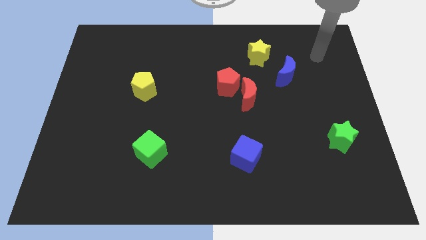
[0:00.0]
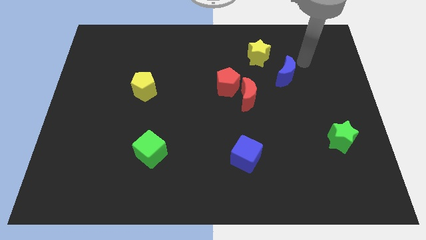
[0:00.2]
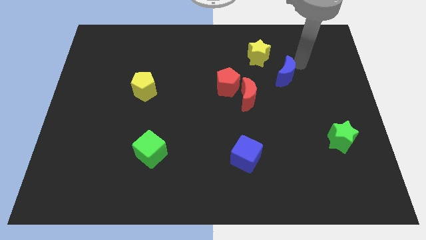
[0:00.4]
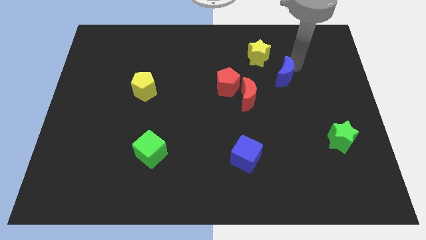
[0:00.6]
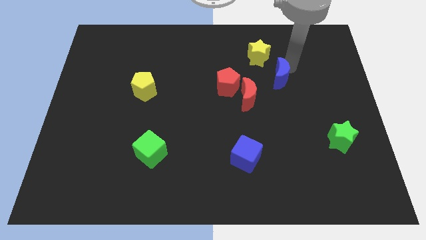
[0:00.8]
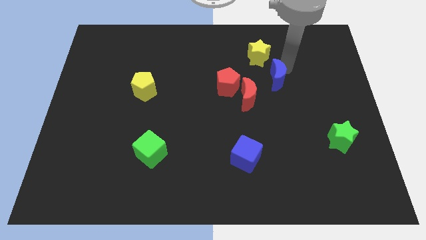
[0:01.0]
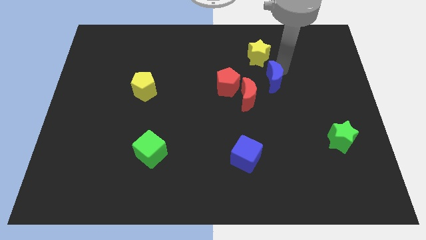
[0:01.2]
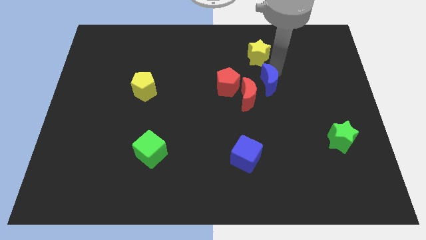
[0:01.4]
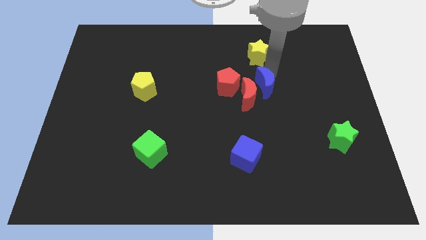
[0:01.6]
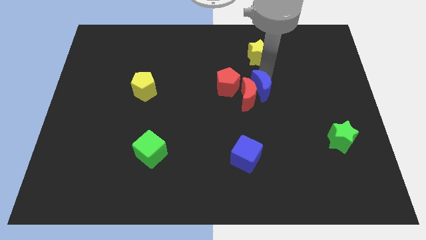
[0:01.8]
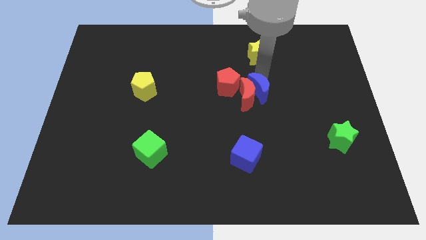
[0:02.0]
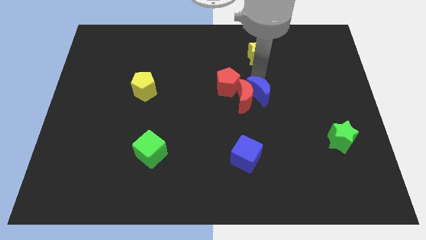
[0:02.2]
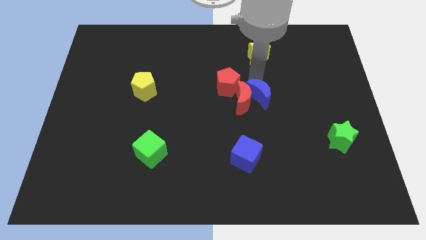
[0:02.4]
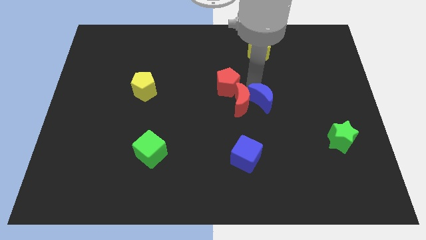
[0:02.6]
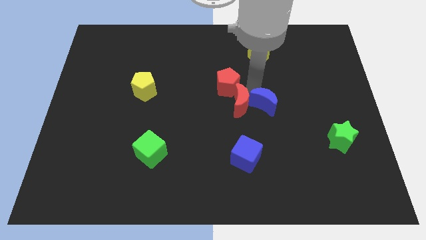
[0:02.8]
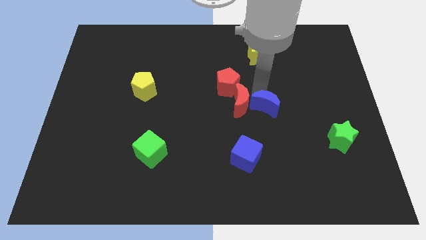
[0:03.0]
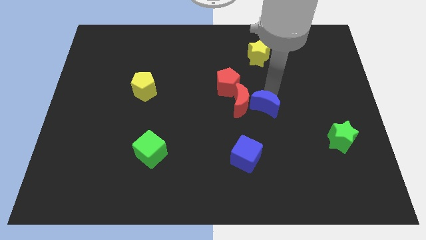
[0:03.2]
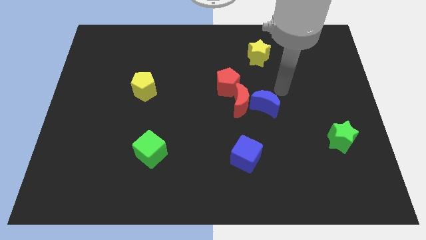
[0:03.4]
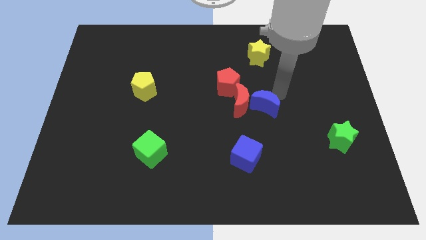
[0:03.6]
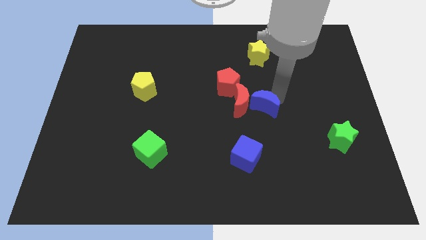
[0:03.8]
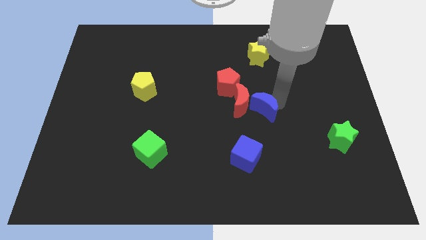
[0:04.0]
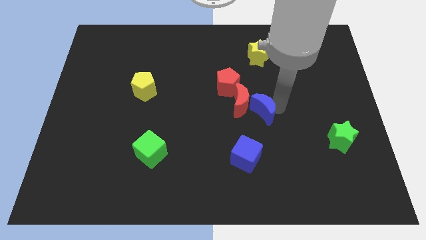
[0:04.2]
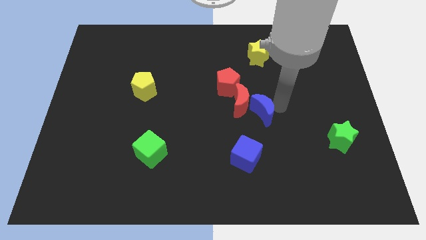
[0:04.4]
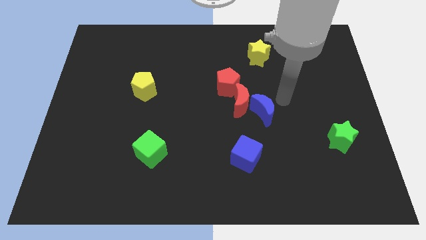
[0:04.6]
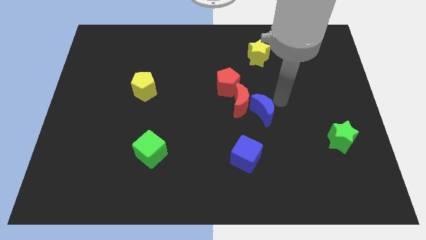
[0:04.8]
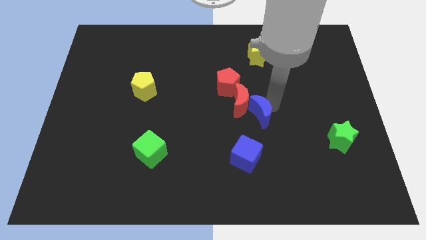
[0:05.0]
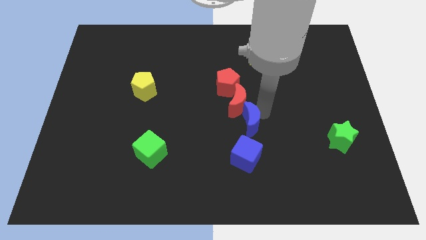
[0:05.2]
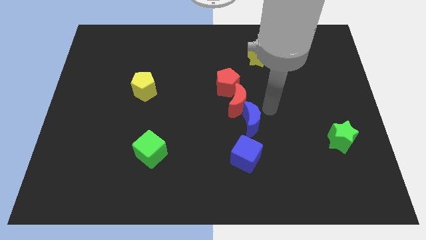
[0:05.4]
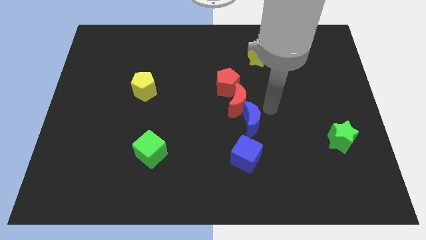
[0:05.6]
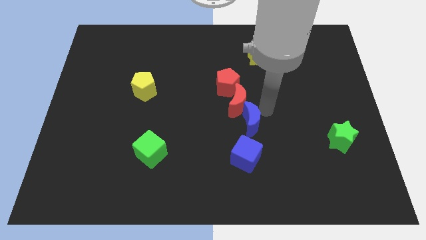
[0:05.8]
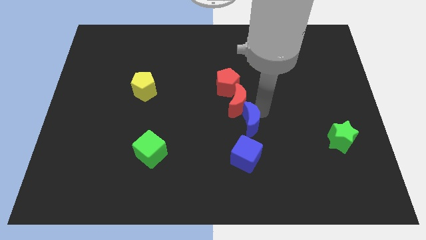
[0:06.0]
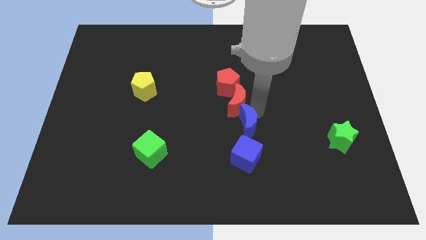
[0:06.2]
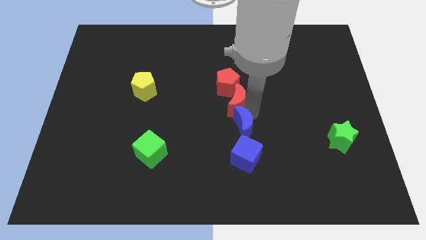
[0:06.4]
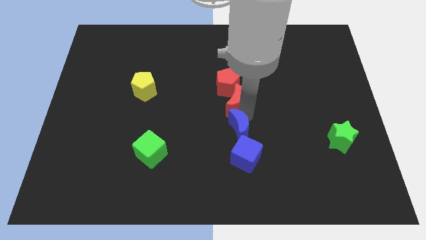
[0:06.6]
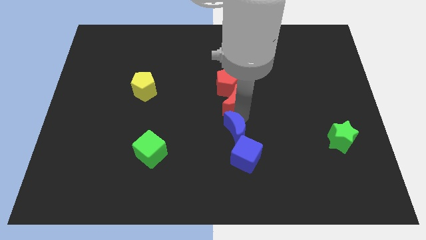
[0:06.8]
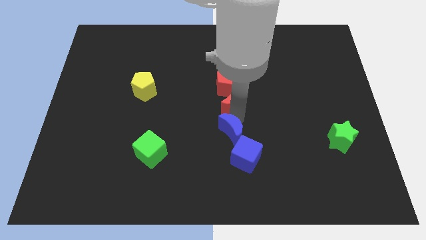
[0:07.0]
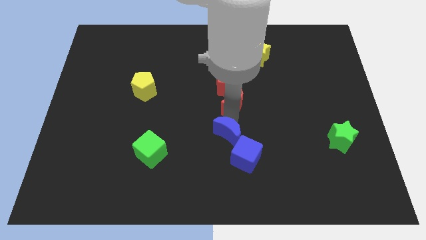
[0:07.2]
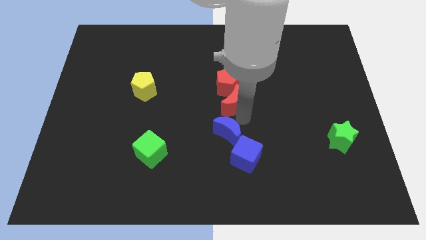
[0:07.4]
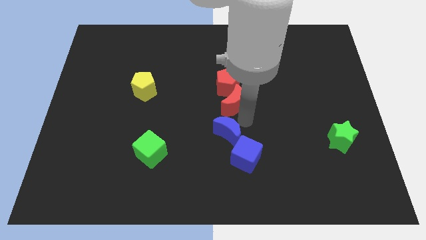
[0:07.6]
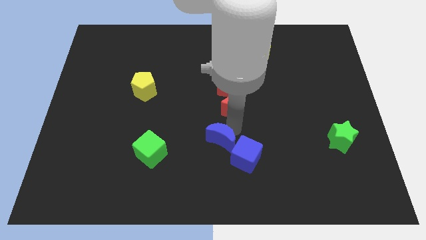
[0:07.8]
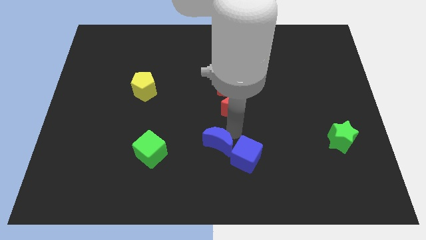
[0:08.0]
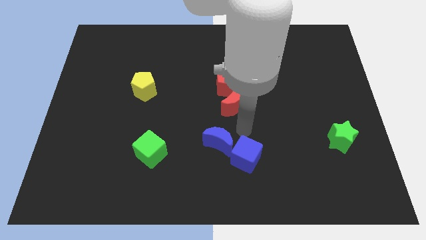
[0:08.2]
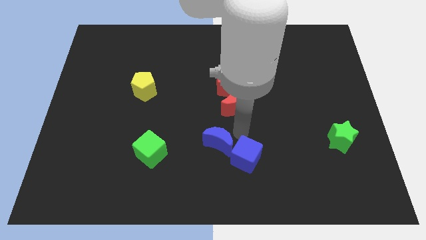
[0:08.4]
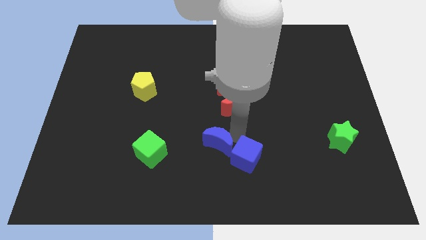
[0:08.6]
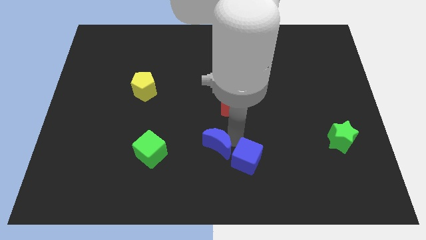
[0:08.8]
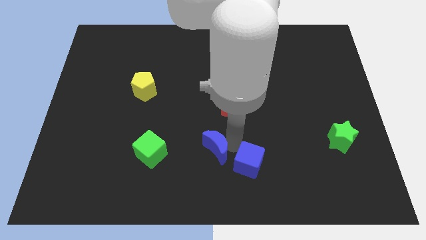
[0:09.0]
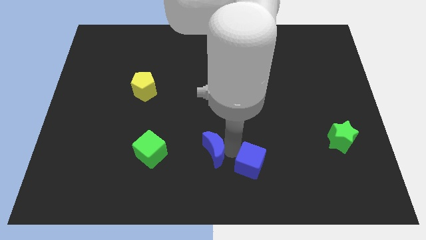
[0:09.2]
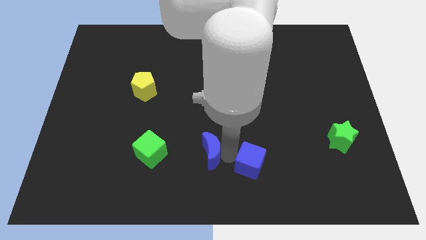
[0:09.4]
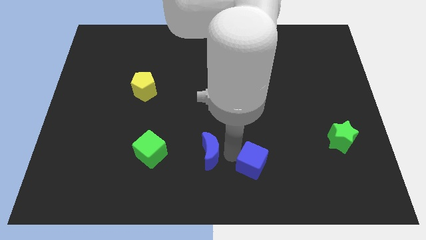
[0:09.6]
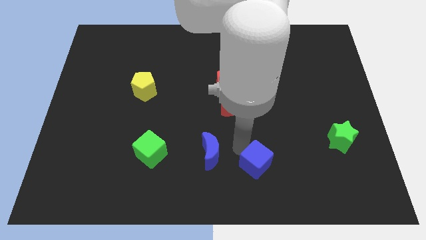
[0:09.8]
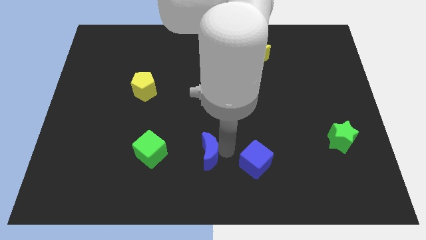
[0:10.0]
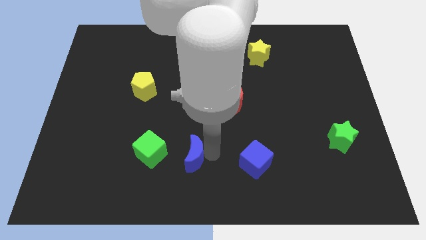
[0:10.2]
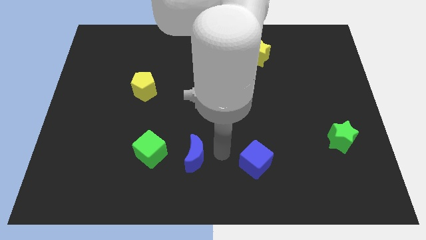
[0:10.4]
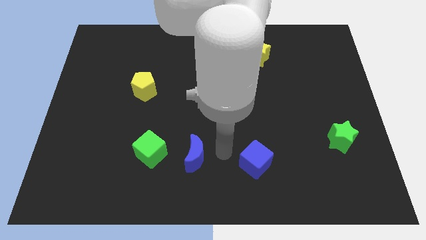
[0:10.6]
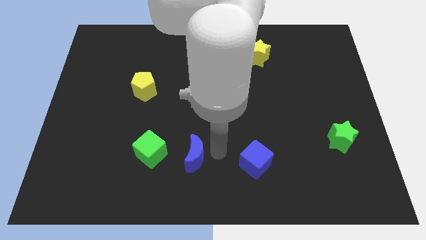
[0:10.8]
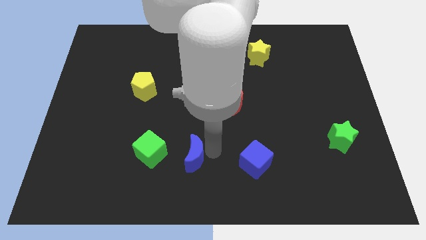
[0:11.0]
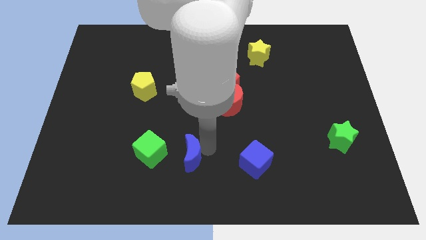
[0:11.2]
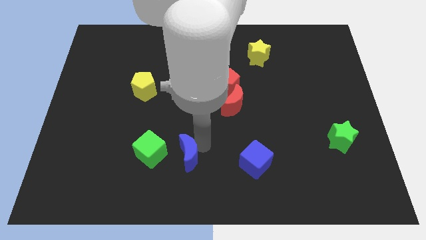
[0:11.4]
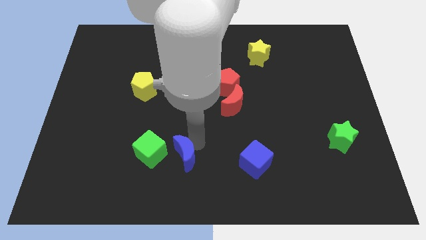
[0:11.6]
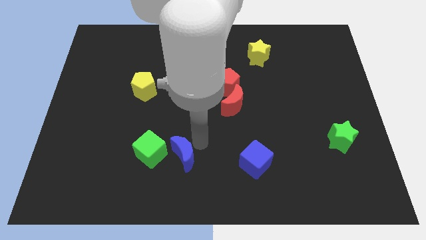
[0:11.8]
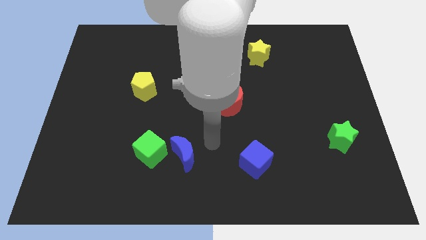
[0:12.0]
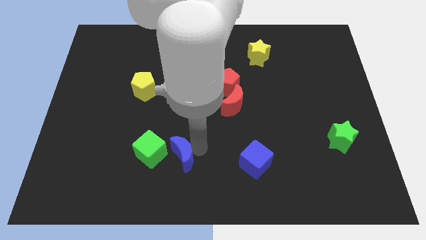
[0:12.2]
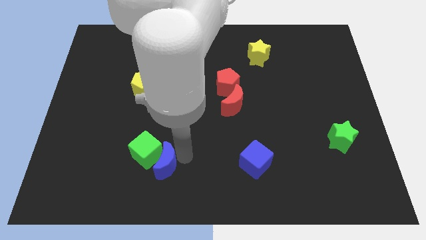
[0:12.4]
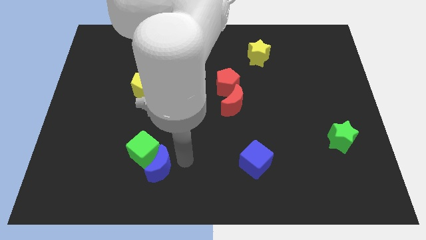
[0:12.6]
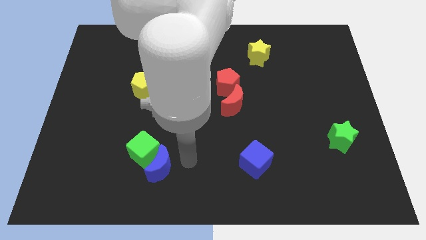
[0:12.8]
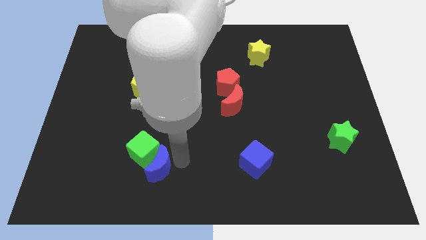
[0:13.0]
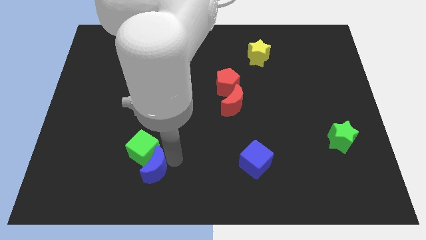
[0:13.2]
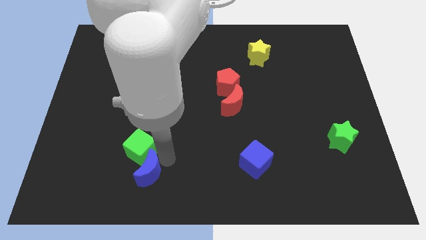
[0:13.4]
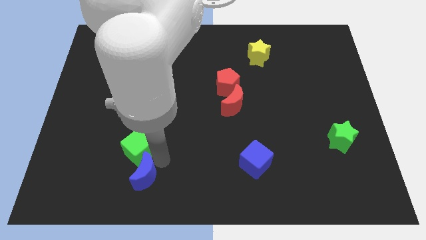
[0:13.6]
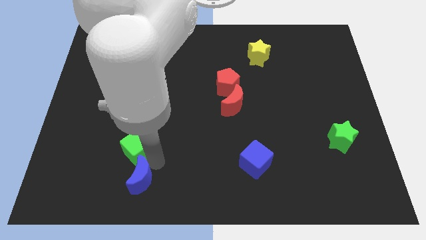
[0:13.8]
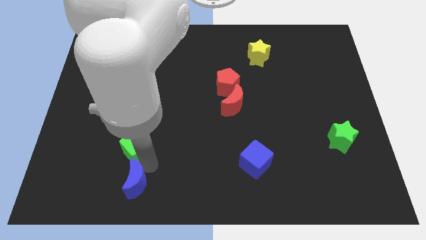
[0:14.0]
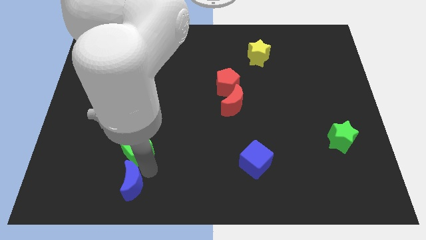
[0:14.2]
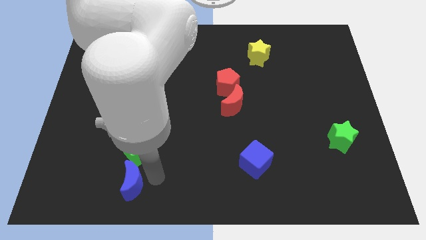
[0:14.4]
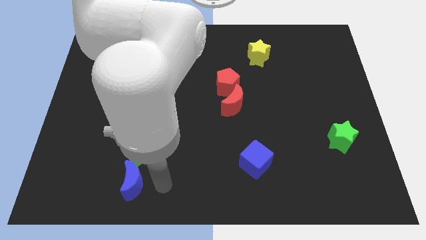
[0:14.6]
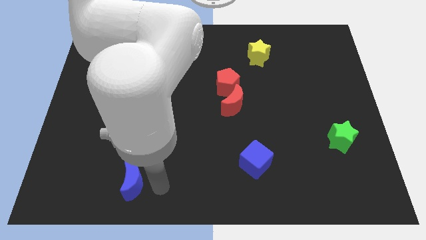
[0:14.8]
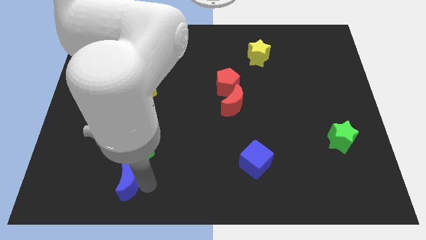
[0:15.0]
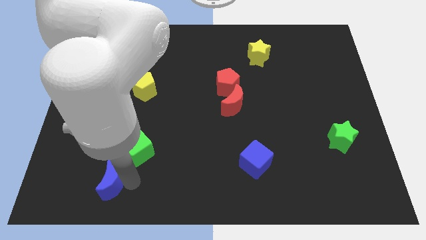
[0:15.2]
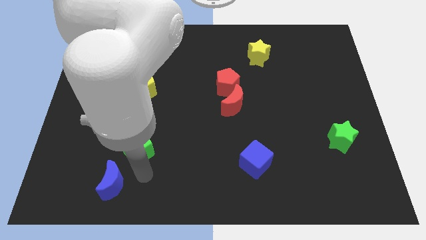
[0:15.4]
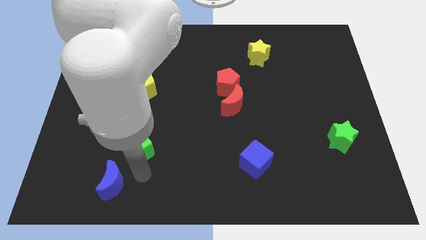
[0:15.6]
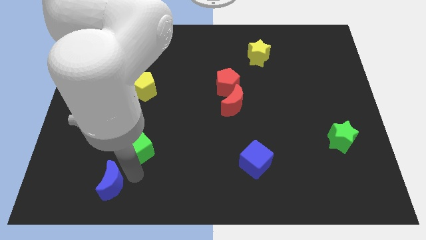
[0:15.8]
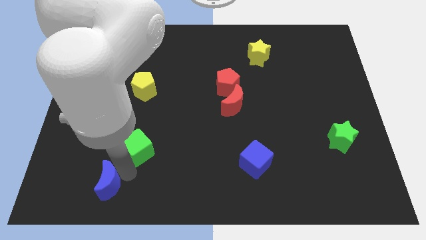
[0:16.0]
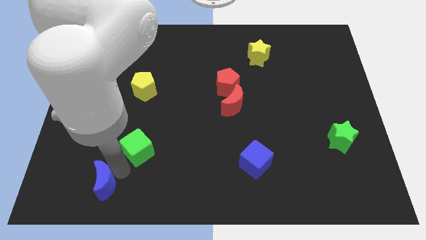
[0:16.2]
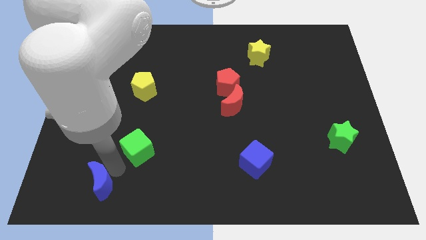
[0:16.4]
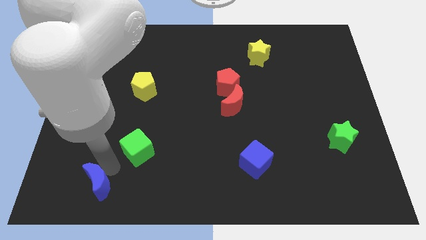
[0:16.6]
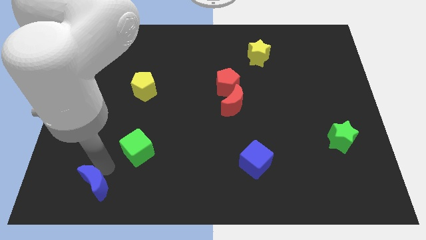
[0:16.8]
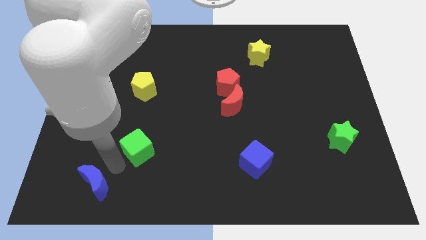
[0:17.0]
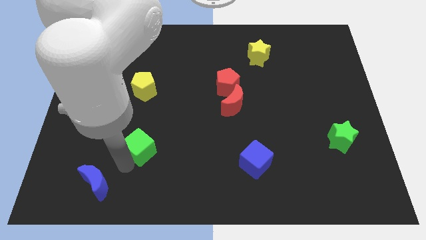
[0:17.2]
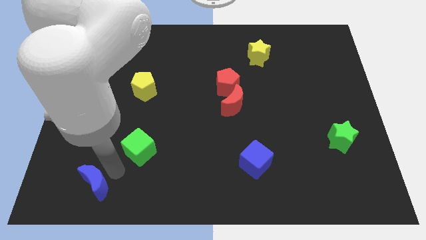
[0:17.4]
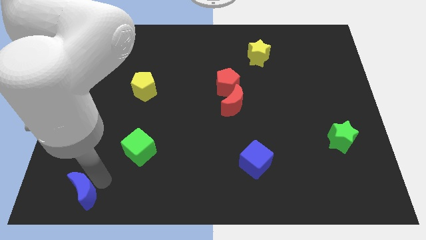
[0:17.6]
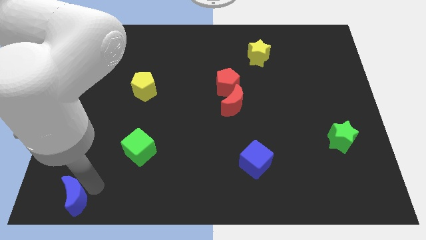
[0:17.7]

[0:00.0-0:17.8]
put the blue moon to the bottom left of the board
